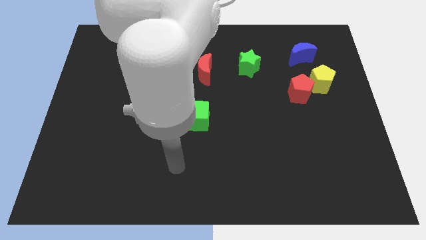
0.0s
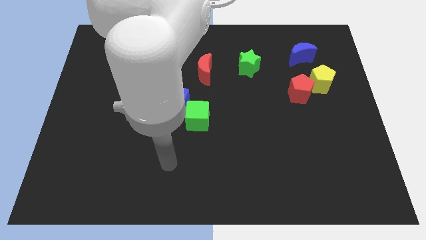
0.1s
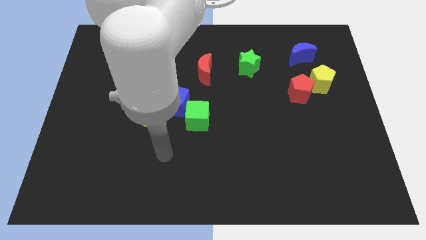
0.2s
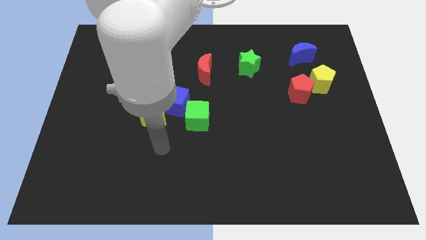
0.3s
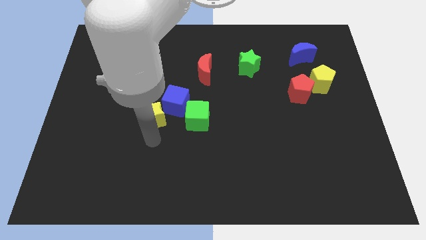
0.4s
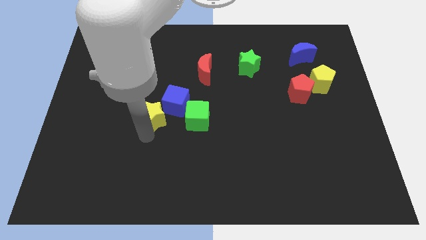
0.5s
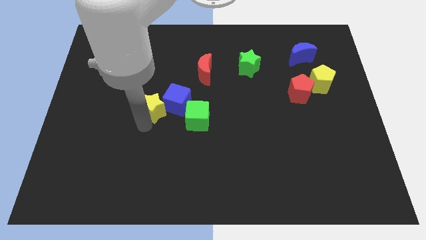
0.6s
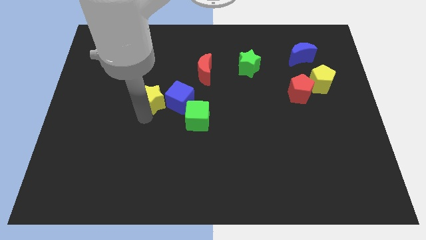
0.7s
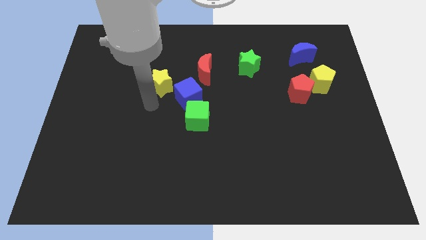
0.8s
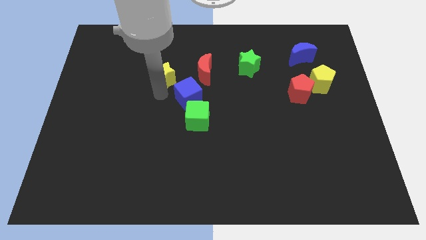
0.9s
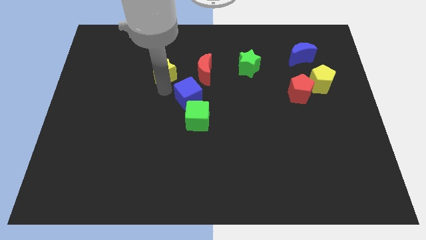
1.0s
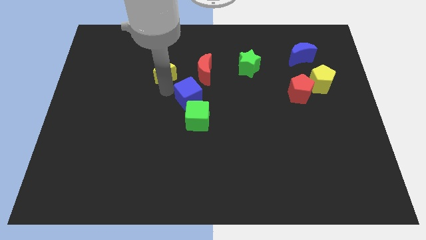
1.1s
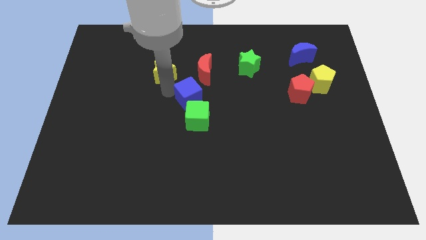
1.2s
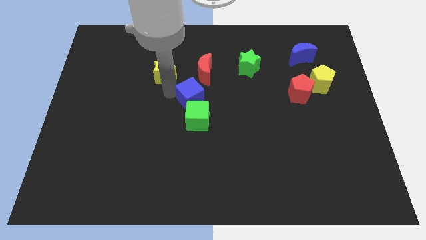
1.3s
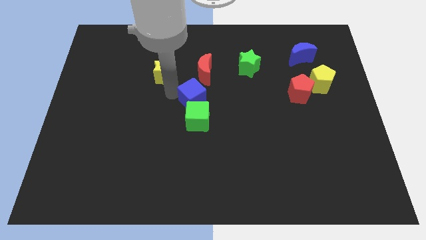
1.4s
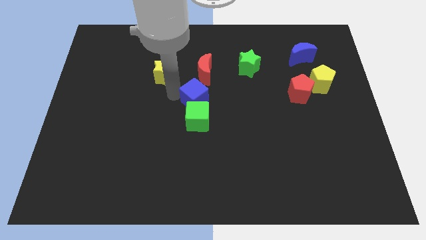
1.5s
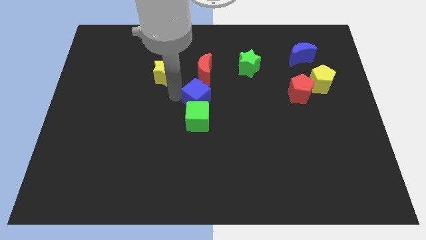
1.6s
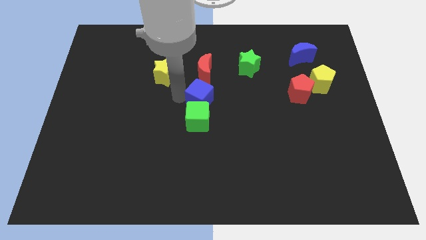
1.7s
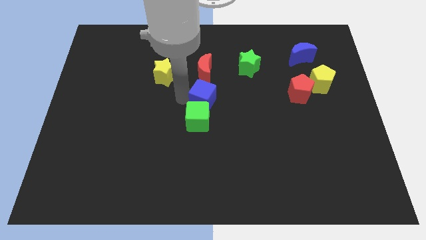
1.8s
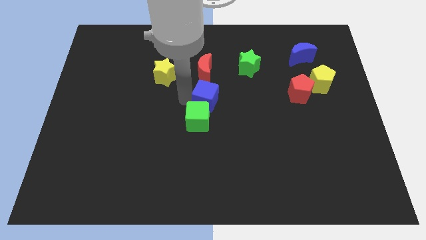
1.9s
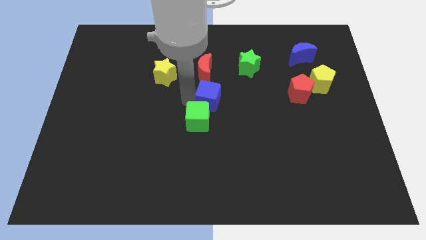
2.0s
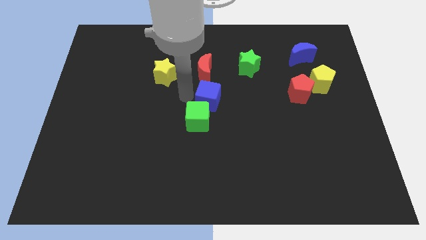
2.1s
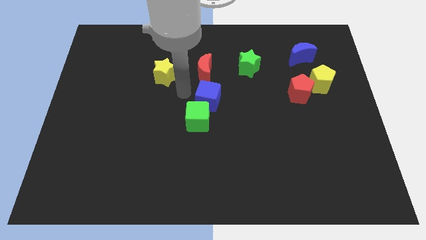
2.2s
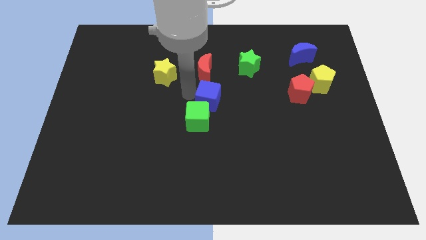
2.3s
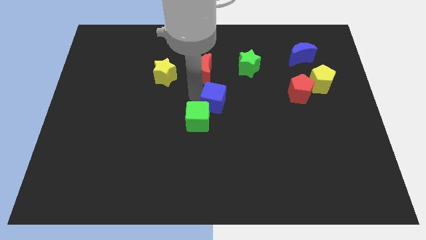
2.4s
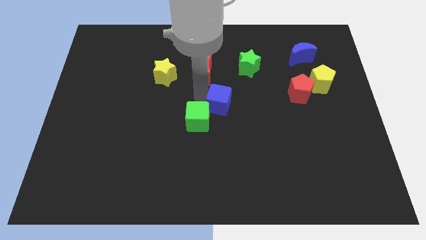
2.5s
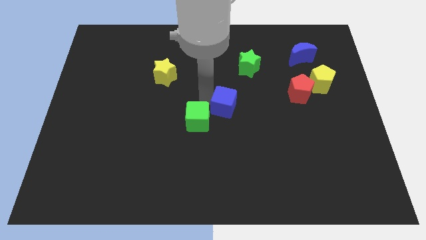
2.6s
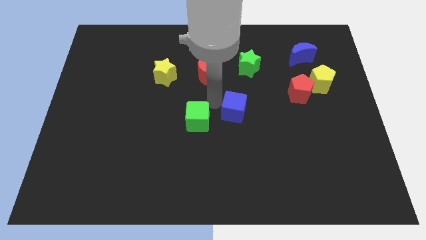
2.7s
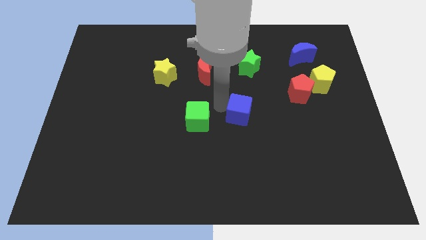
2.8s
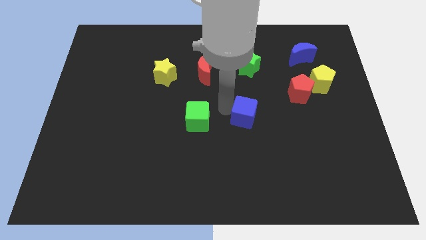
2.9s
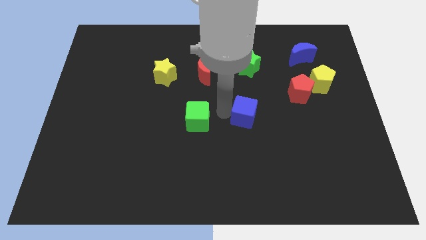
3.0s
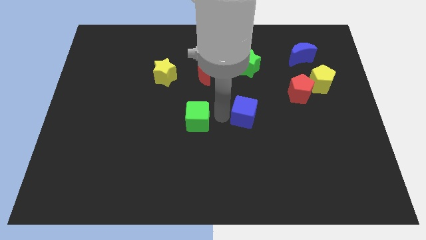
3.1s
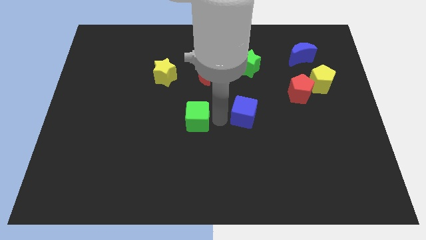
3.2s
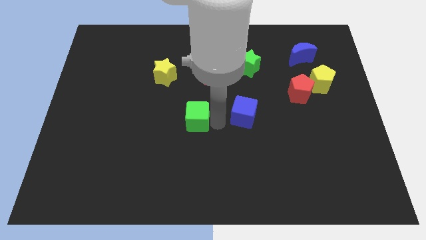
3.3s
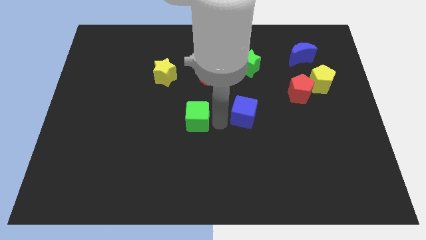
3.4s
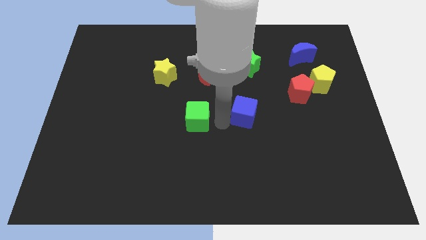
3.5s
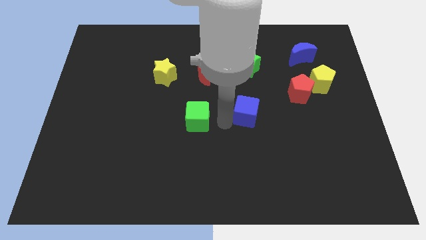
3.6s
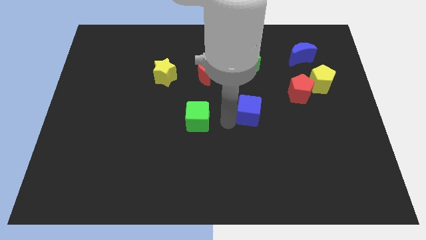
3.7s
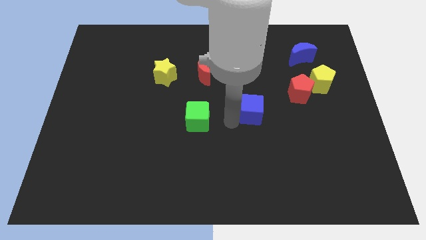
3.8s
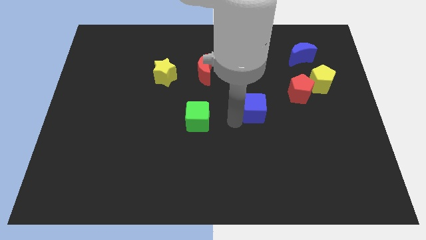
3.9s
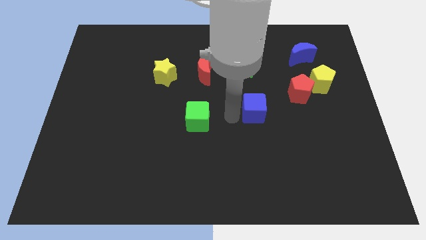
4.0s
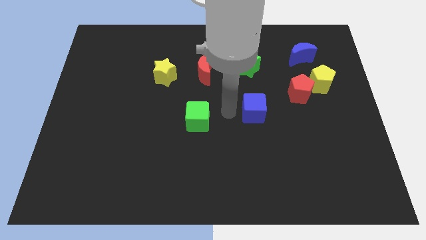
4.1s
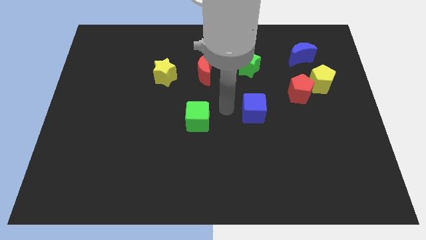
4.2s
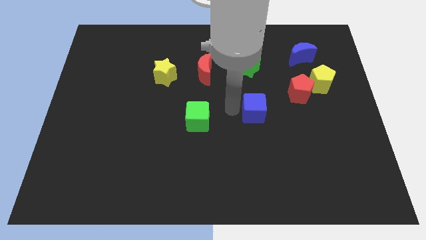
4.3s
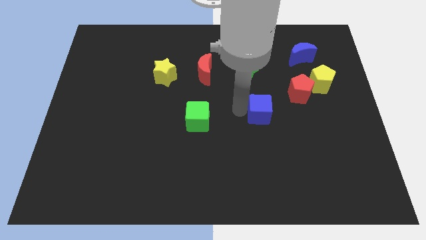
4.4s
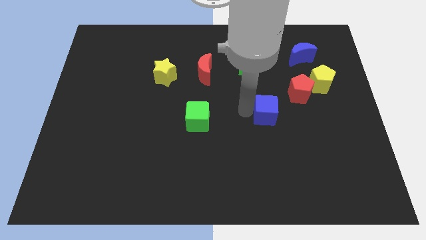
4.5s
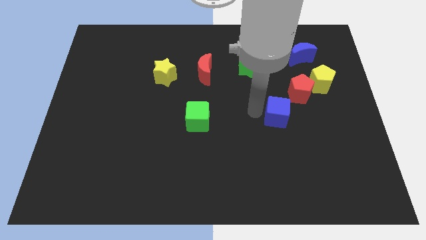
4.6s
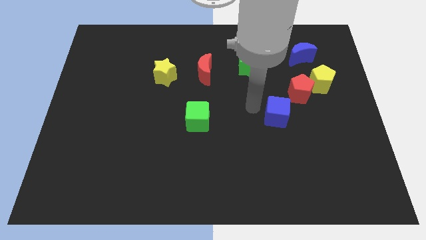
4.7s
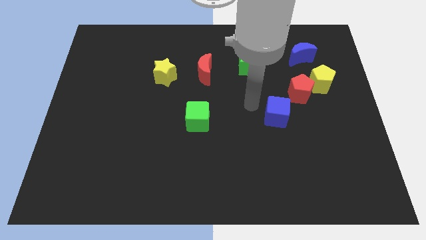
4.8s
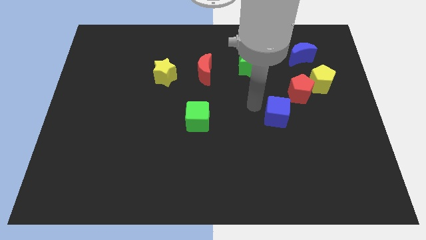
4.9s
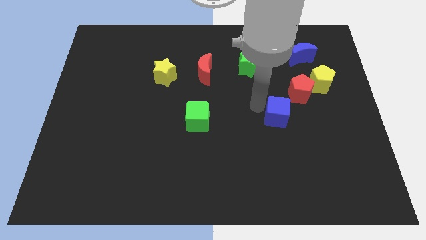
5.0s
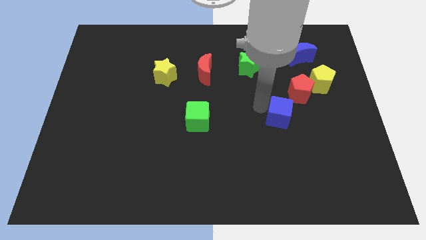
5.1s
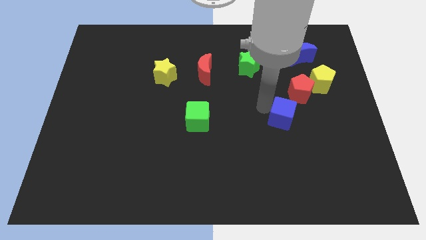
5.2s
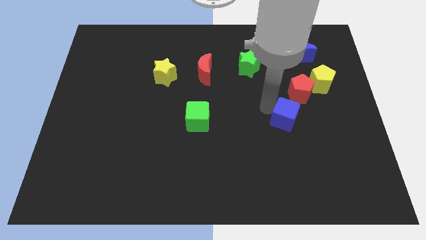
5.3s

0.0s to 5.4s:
move the blue cube to the bottom of the red pentagon

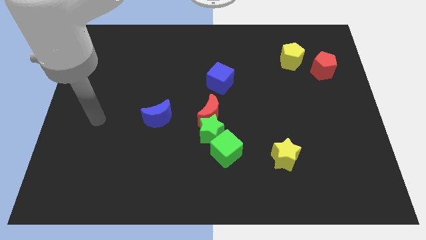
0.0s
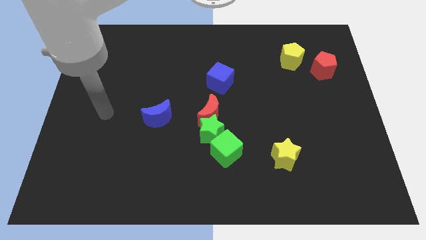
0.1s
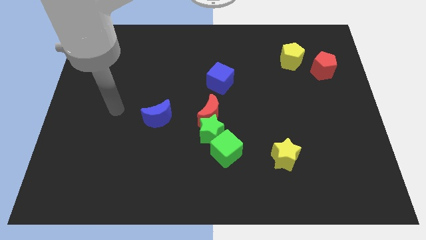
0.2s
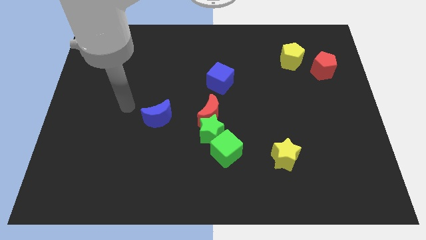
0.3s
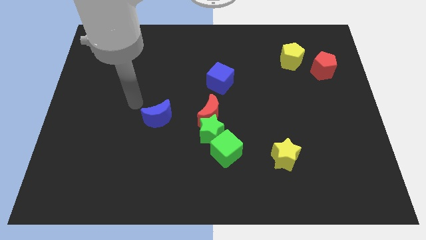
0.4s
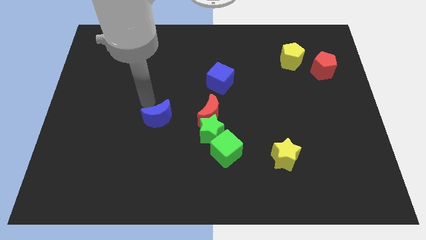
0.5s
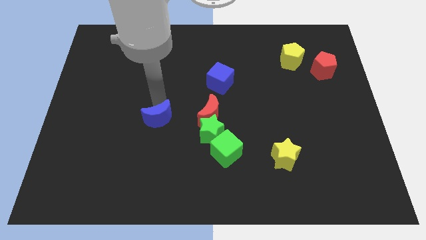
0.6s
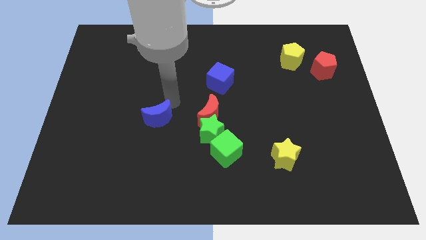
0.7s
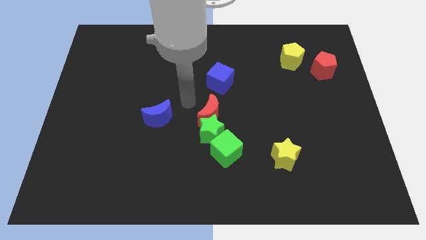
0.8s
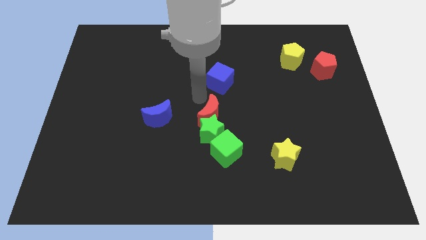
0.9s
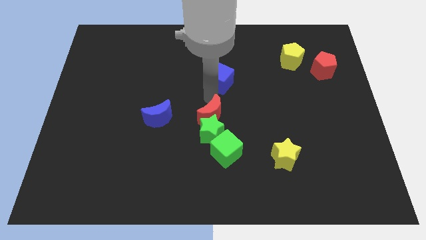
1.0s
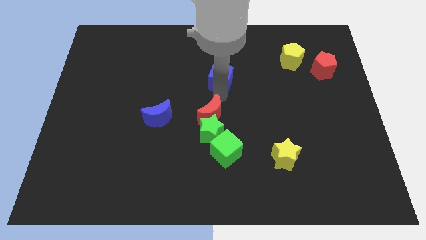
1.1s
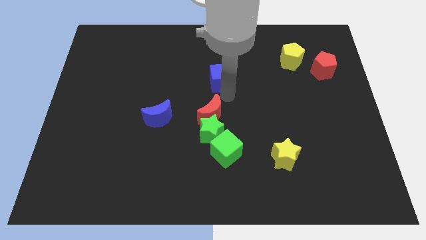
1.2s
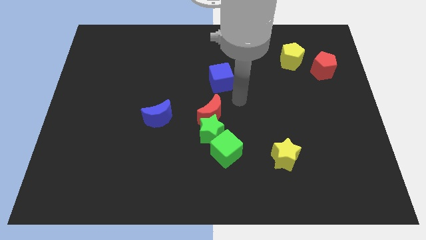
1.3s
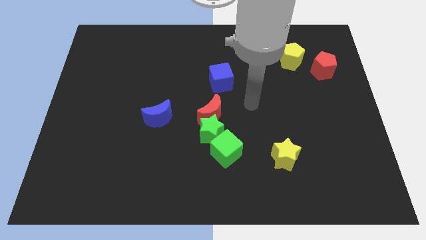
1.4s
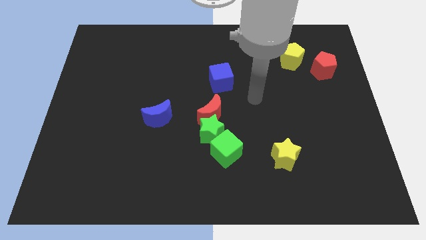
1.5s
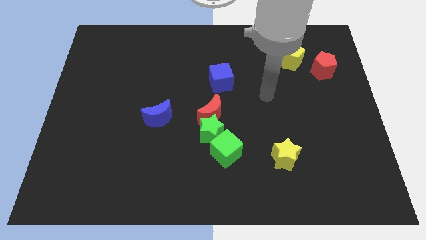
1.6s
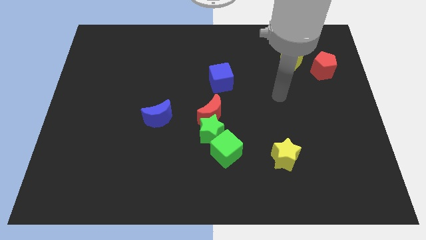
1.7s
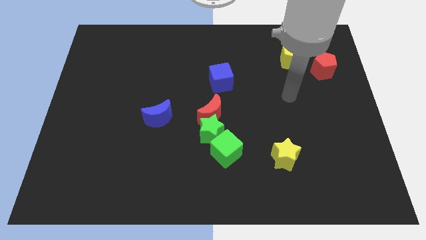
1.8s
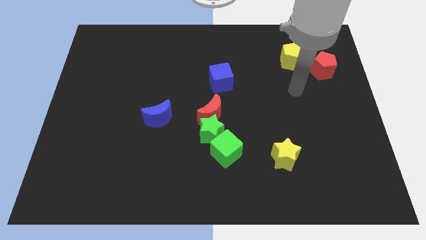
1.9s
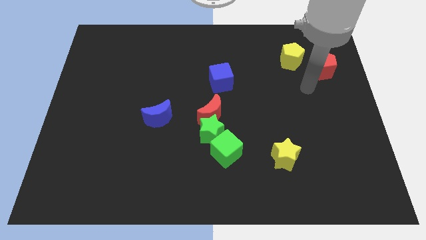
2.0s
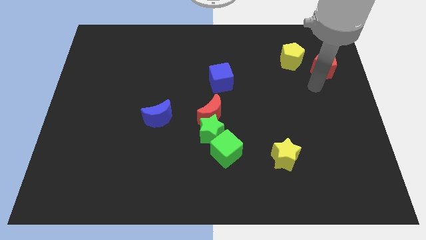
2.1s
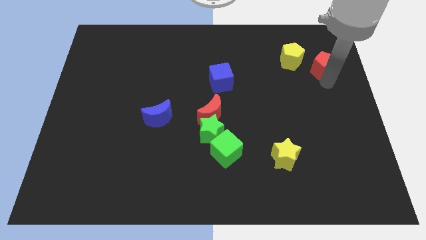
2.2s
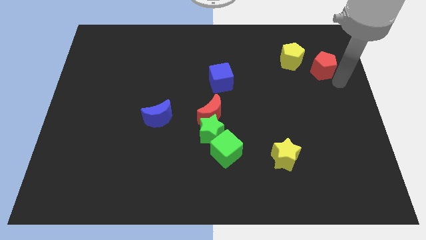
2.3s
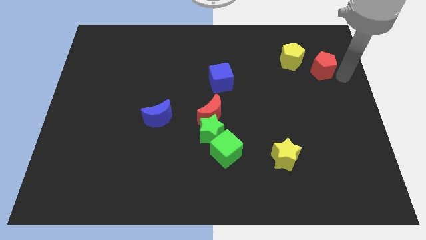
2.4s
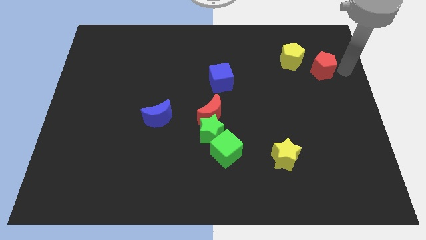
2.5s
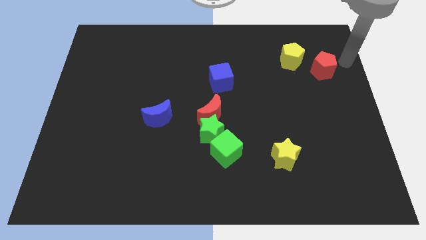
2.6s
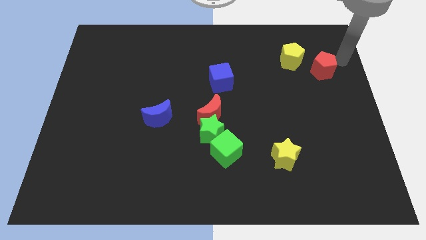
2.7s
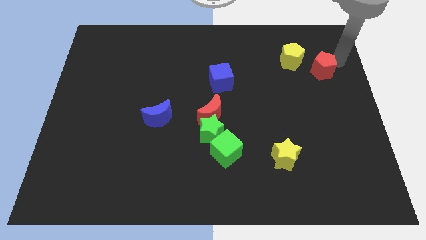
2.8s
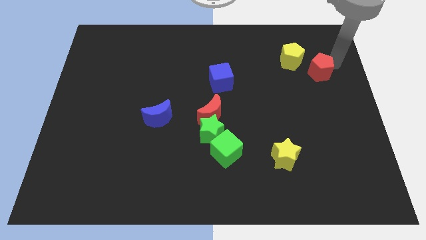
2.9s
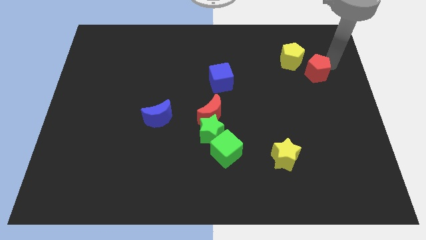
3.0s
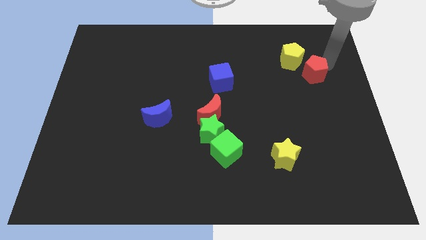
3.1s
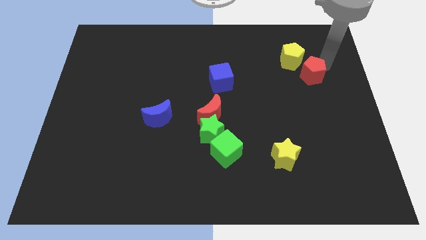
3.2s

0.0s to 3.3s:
push the red pentagon to the bottom side of the yellow pentagon
